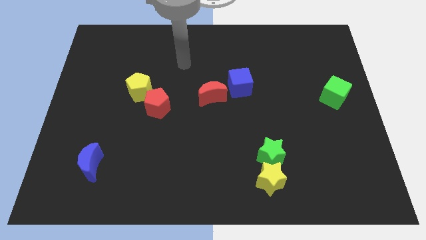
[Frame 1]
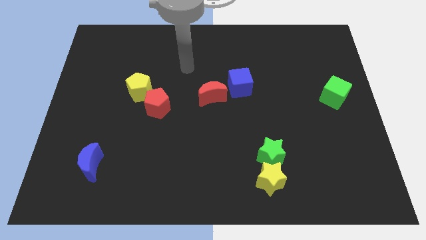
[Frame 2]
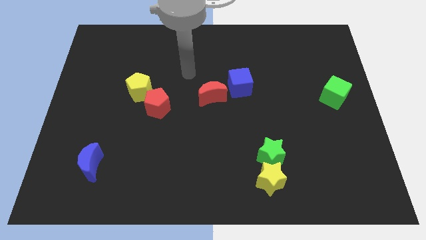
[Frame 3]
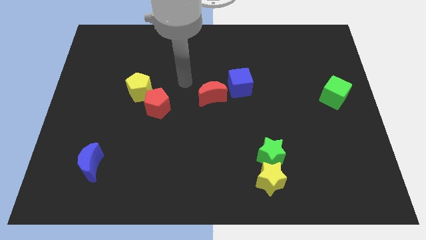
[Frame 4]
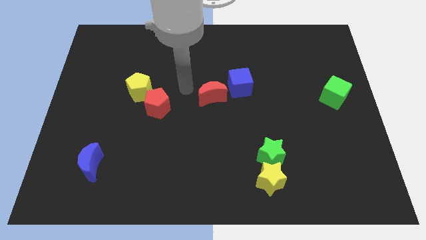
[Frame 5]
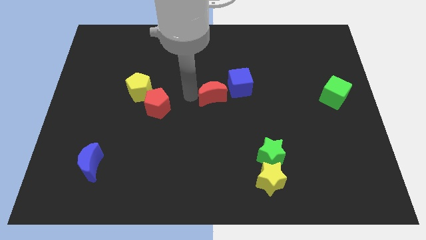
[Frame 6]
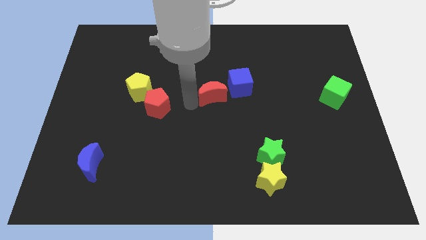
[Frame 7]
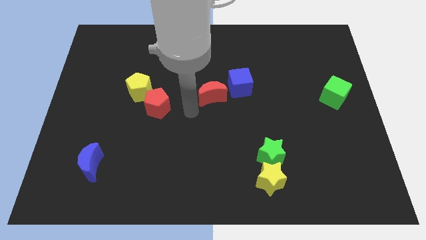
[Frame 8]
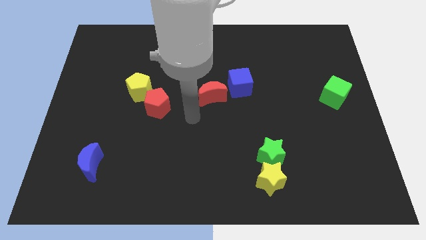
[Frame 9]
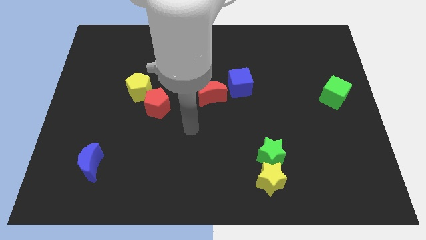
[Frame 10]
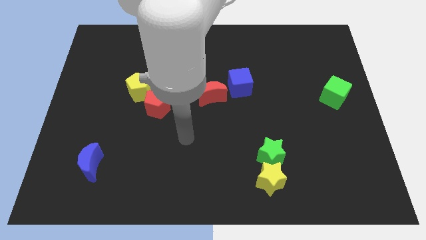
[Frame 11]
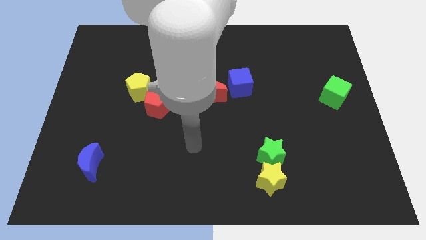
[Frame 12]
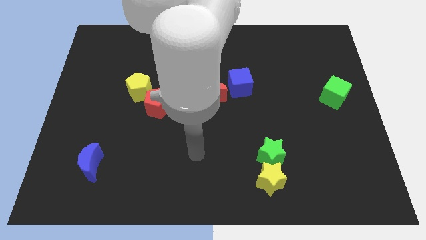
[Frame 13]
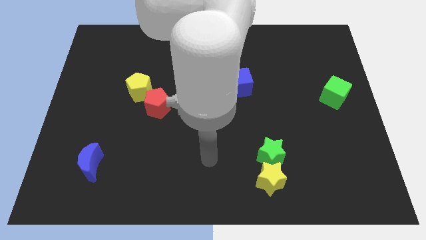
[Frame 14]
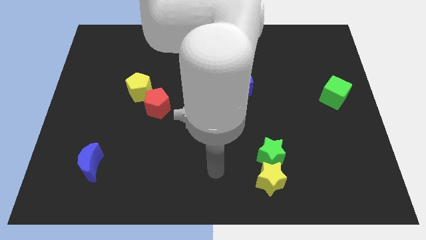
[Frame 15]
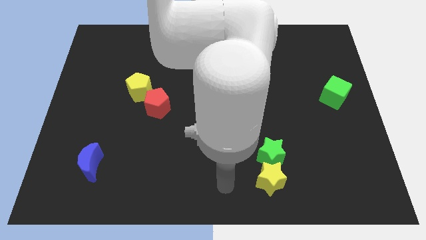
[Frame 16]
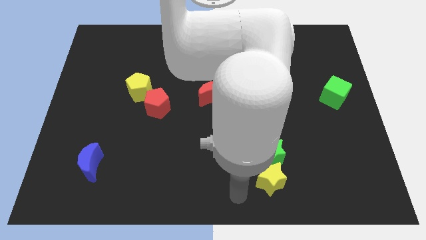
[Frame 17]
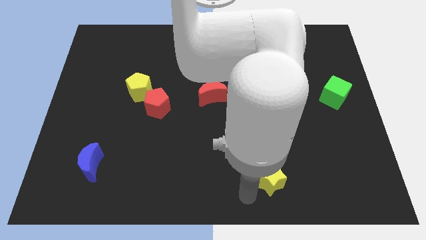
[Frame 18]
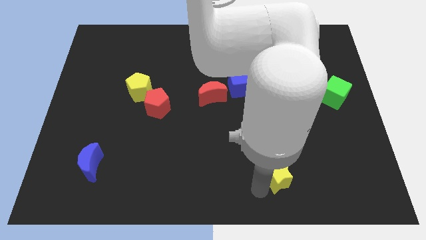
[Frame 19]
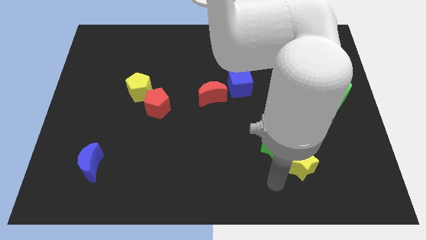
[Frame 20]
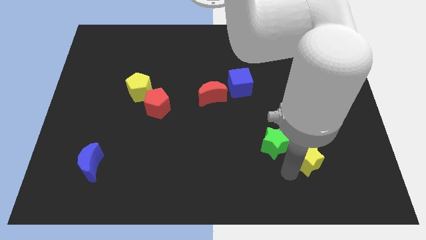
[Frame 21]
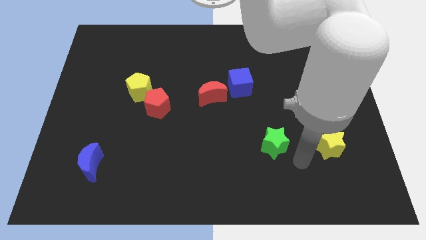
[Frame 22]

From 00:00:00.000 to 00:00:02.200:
separate the green star from the yellow star

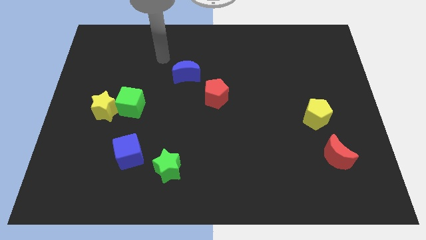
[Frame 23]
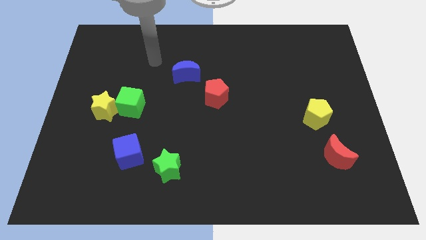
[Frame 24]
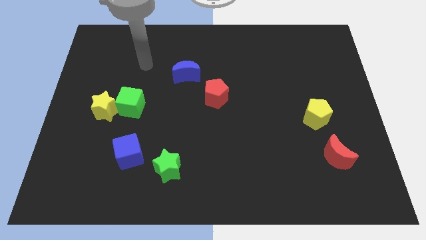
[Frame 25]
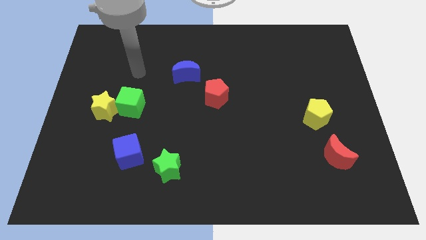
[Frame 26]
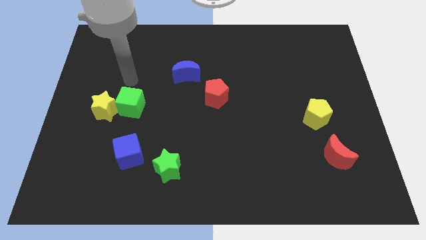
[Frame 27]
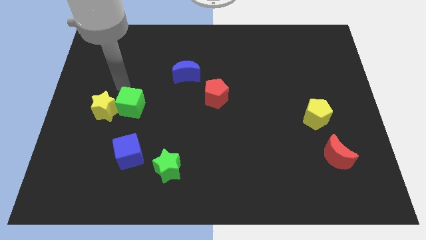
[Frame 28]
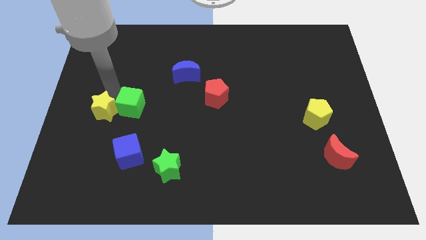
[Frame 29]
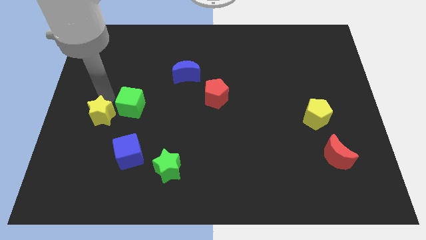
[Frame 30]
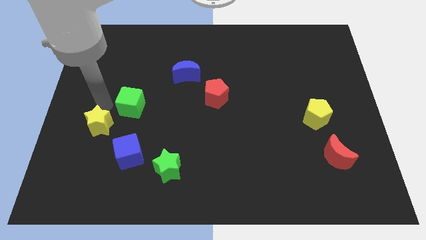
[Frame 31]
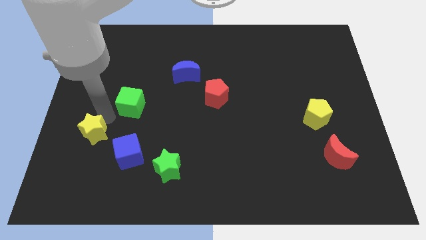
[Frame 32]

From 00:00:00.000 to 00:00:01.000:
separate the green cube from the yellow star

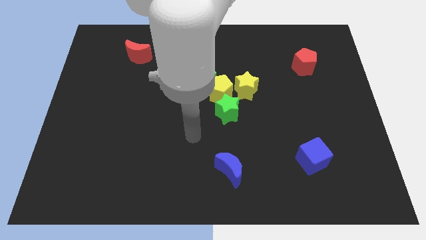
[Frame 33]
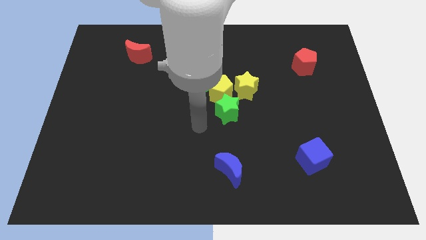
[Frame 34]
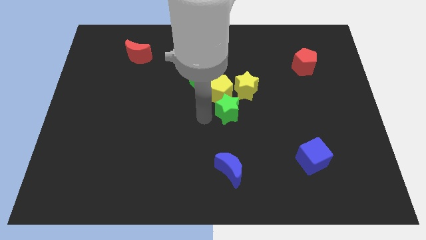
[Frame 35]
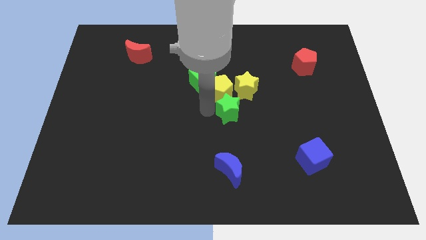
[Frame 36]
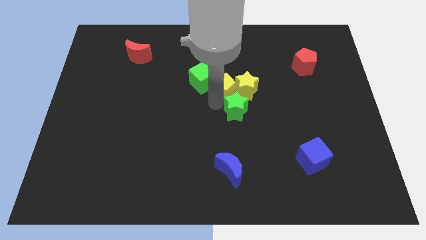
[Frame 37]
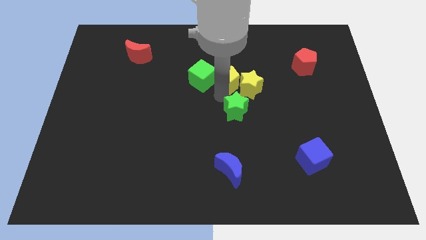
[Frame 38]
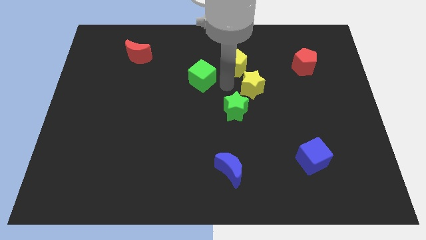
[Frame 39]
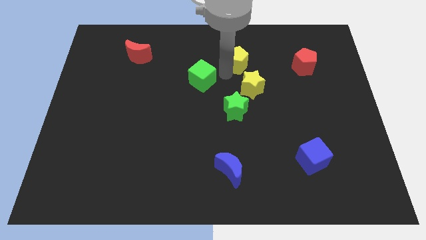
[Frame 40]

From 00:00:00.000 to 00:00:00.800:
pull the green cube apart from the yellow pentagon

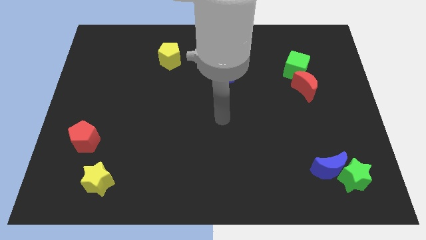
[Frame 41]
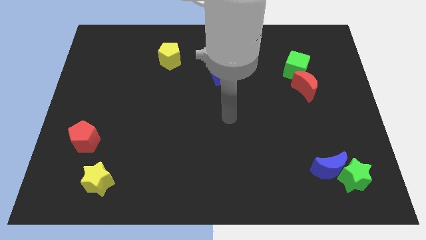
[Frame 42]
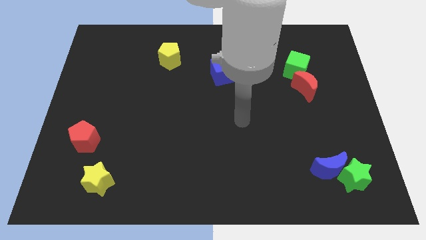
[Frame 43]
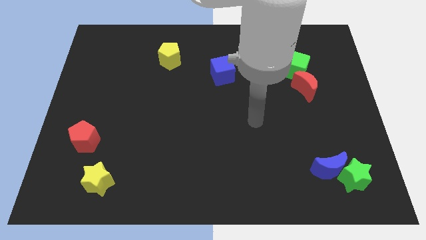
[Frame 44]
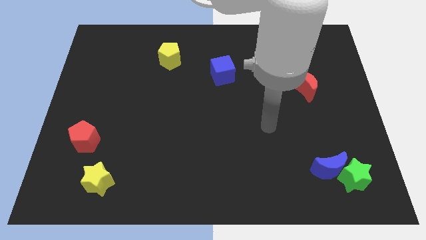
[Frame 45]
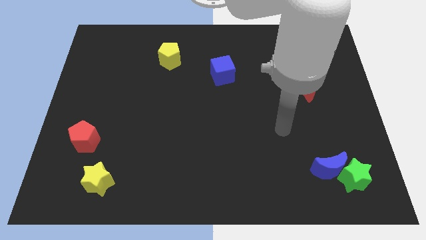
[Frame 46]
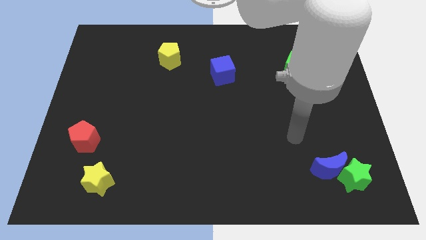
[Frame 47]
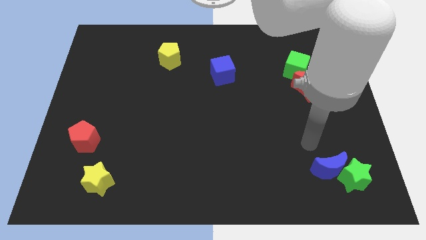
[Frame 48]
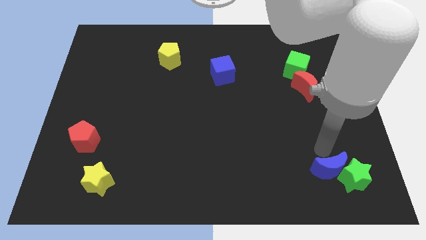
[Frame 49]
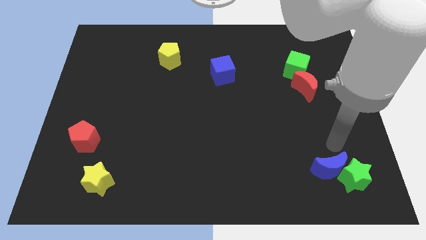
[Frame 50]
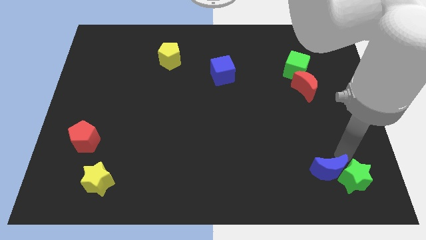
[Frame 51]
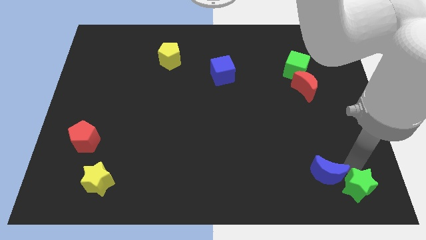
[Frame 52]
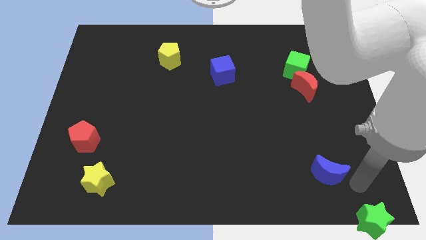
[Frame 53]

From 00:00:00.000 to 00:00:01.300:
separate the blue moon from the green star

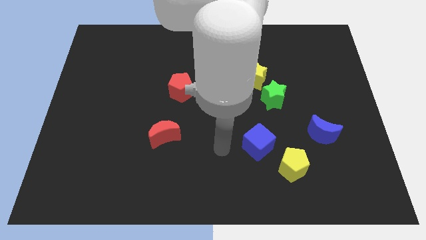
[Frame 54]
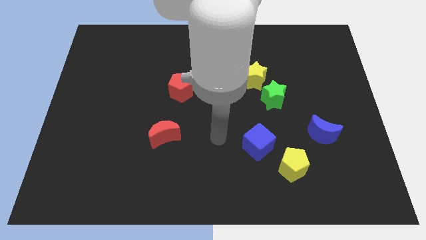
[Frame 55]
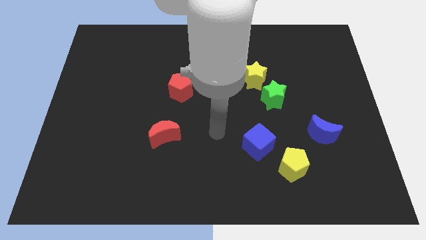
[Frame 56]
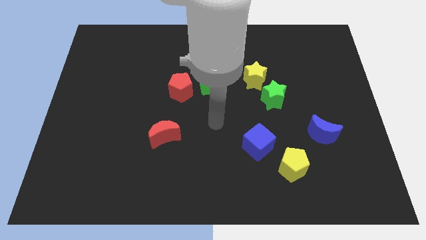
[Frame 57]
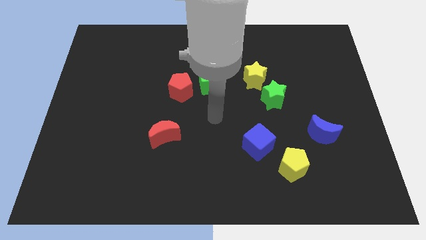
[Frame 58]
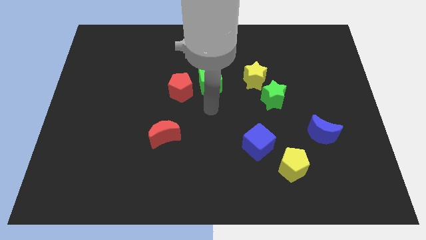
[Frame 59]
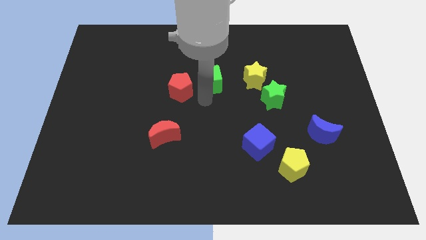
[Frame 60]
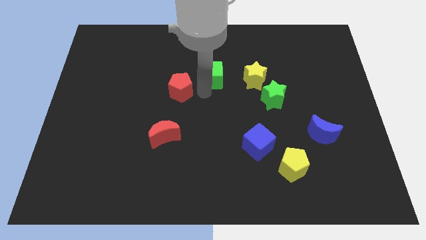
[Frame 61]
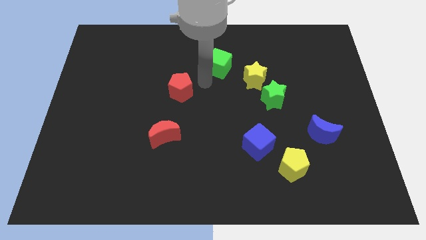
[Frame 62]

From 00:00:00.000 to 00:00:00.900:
pull the red pentagon apart from the green cube

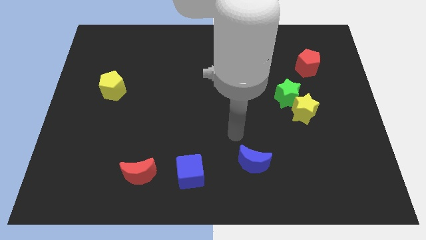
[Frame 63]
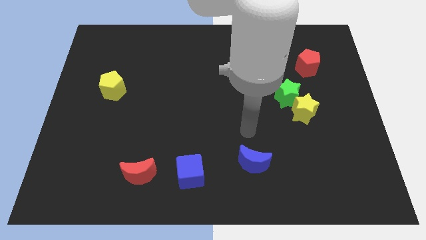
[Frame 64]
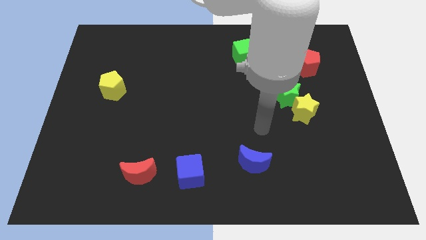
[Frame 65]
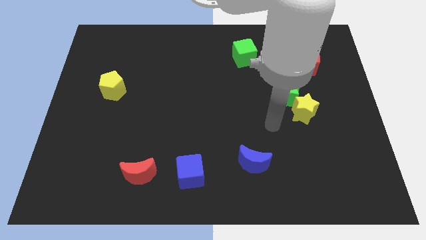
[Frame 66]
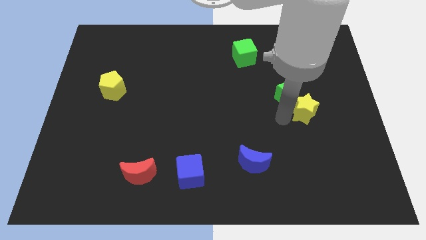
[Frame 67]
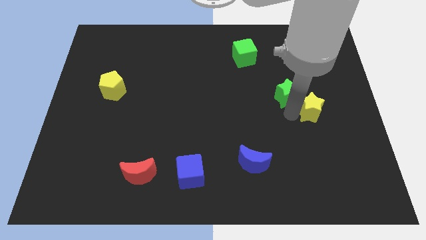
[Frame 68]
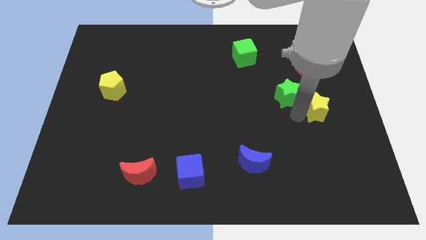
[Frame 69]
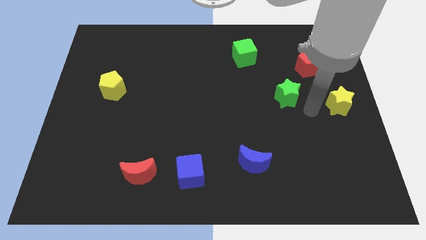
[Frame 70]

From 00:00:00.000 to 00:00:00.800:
move the green star away from the yellow star

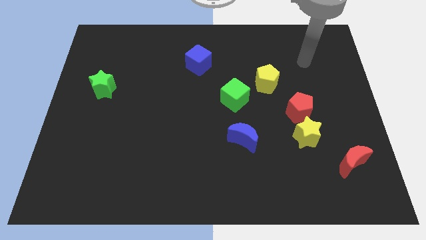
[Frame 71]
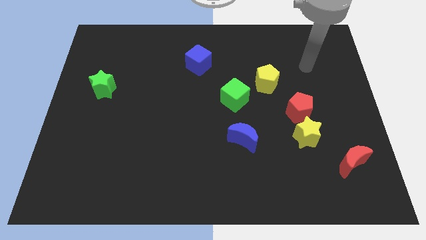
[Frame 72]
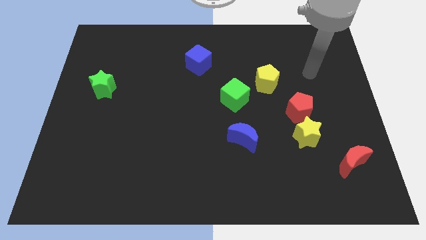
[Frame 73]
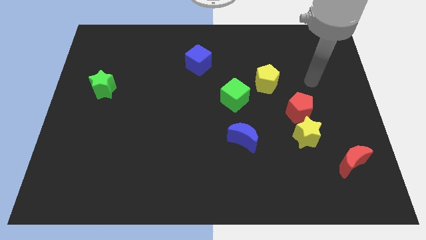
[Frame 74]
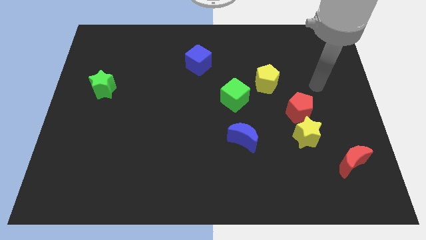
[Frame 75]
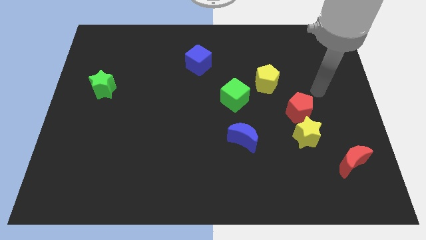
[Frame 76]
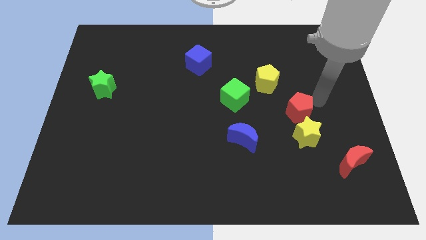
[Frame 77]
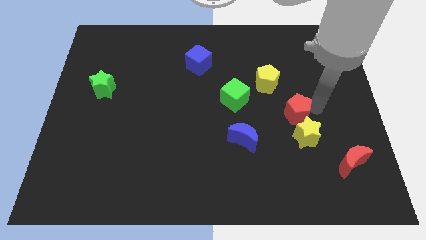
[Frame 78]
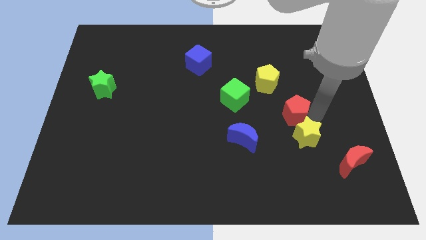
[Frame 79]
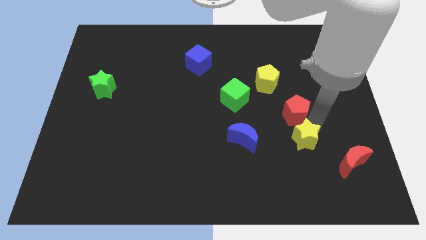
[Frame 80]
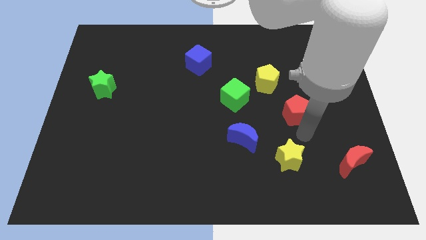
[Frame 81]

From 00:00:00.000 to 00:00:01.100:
pull the red pentagon apart from the yellow star

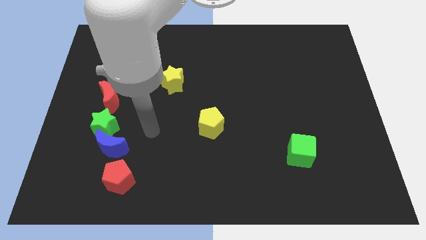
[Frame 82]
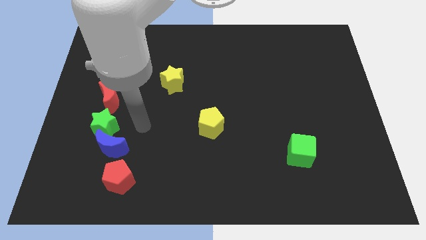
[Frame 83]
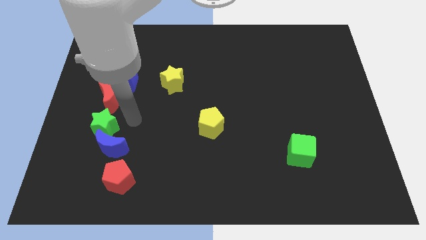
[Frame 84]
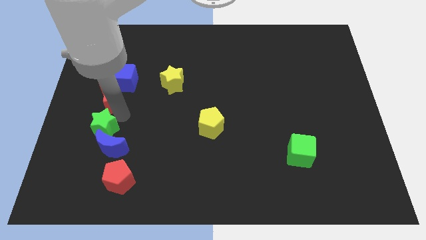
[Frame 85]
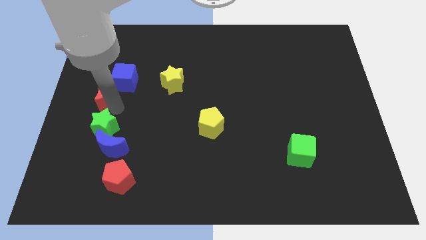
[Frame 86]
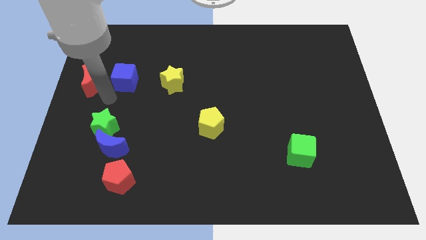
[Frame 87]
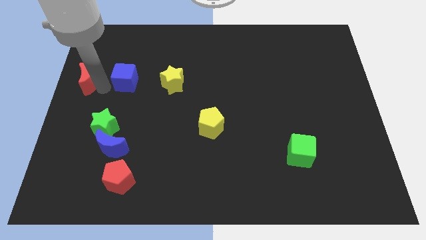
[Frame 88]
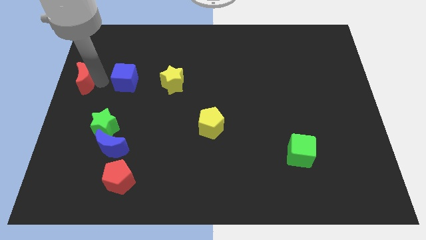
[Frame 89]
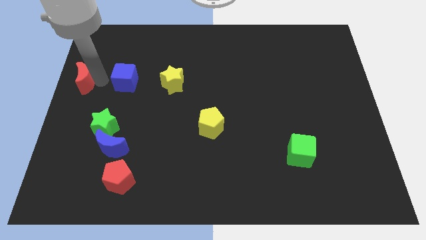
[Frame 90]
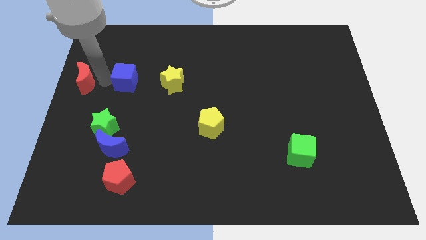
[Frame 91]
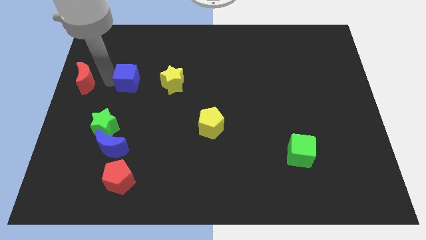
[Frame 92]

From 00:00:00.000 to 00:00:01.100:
move the blue cube away from the red moon
